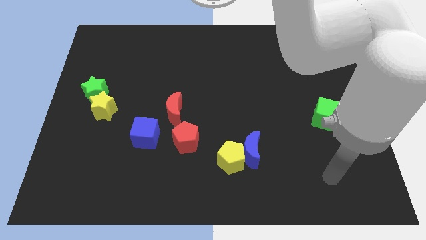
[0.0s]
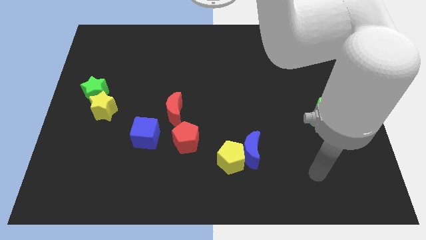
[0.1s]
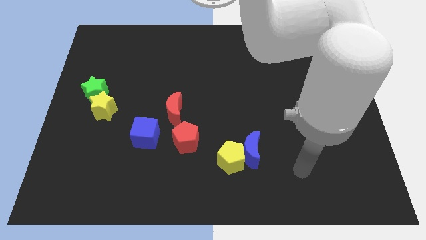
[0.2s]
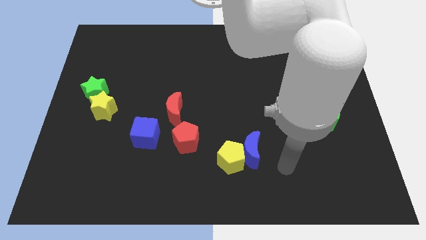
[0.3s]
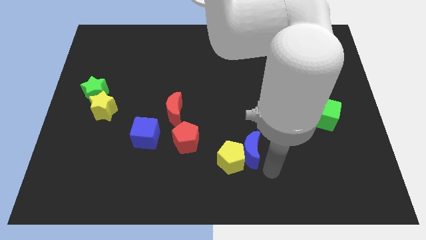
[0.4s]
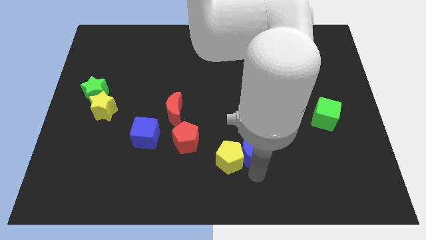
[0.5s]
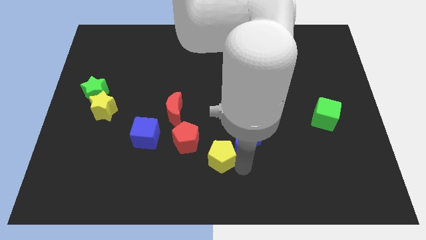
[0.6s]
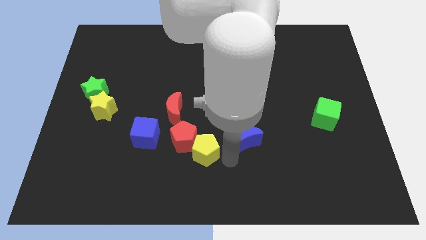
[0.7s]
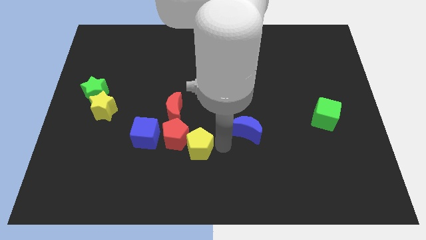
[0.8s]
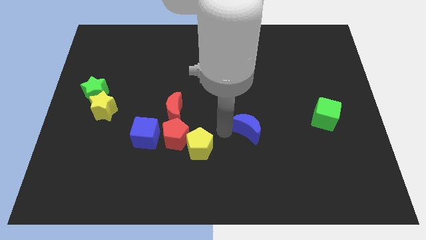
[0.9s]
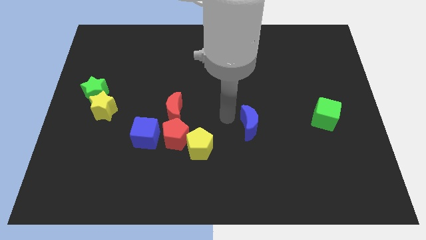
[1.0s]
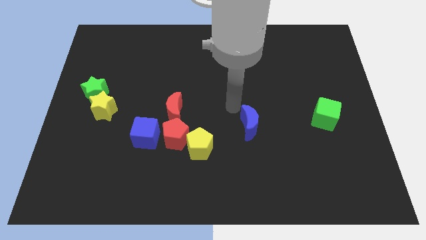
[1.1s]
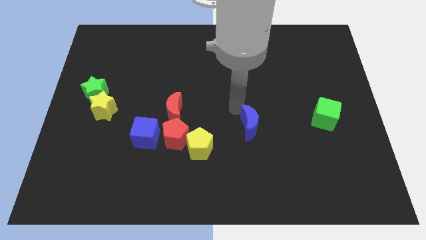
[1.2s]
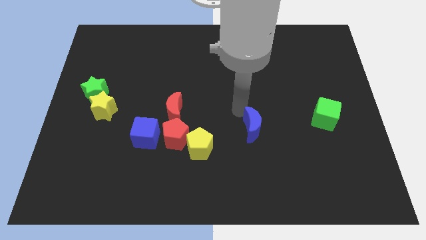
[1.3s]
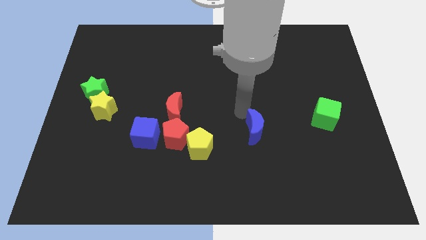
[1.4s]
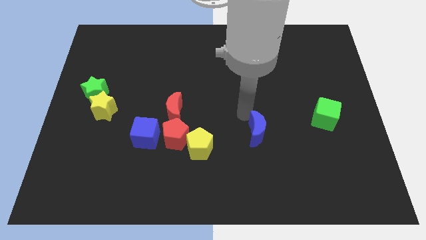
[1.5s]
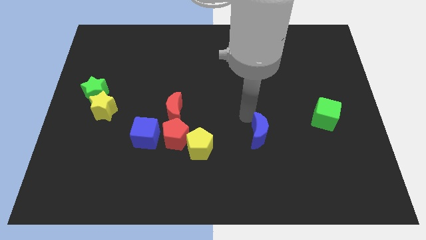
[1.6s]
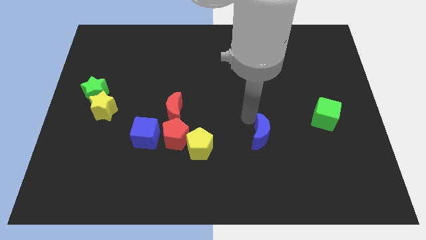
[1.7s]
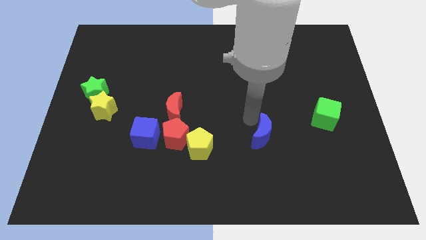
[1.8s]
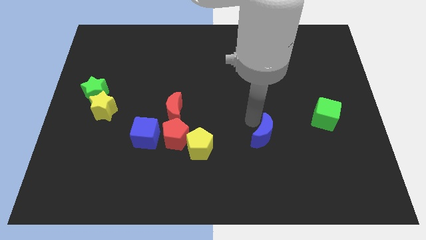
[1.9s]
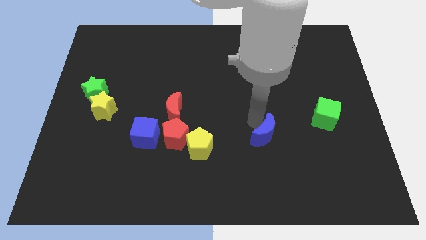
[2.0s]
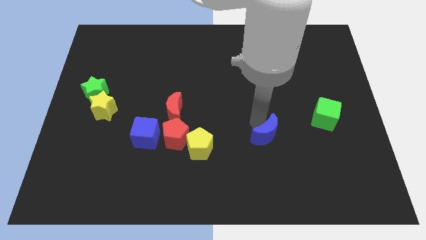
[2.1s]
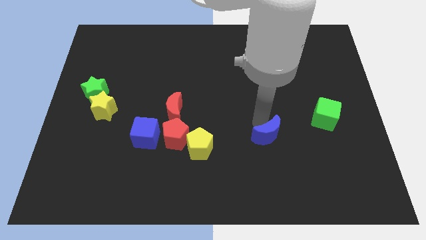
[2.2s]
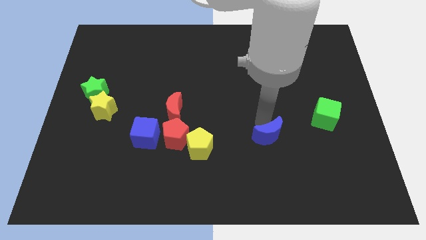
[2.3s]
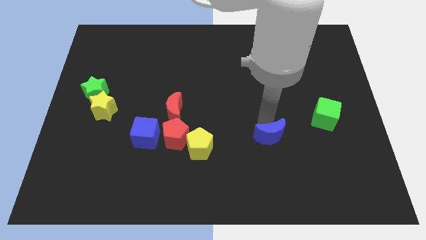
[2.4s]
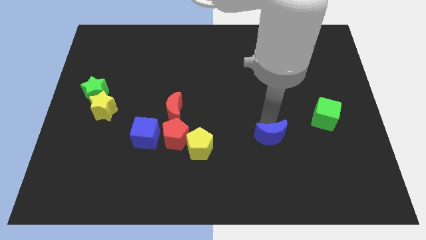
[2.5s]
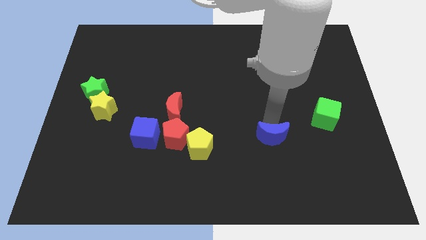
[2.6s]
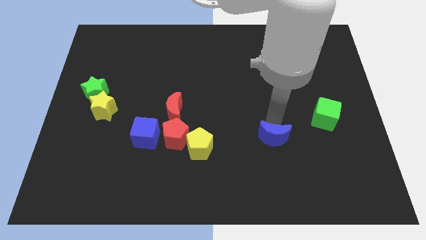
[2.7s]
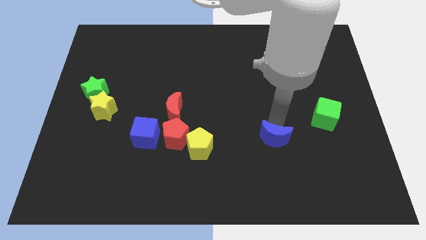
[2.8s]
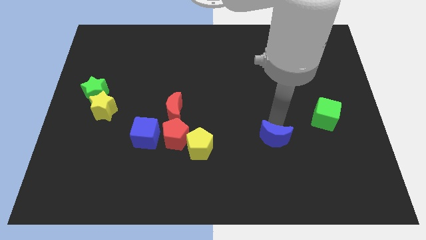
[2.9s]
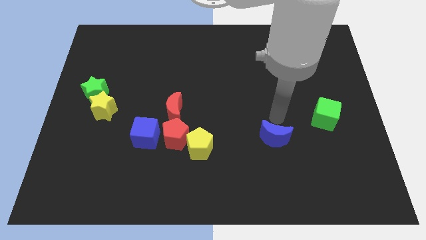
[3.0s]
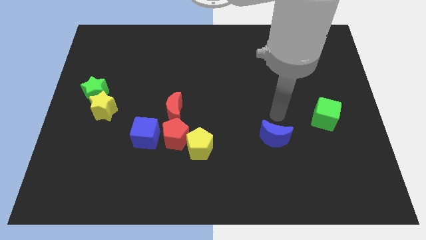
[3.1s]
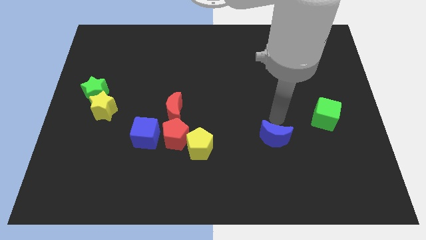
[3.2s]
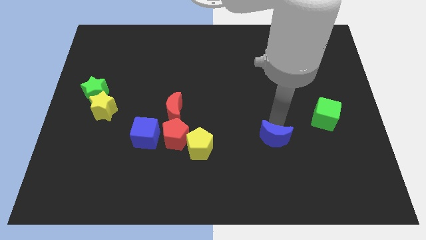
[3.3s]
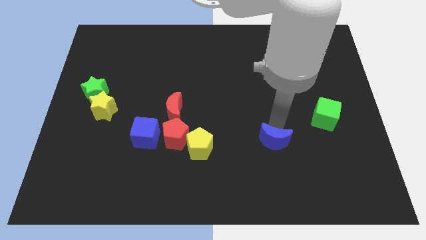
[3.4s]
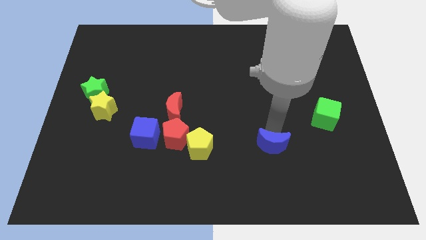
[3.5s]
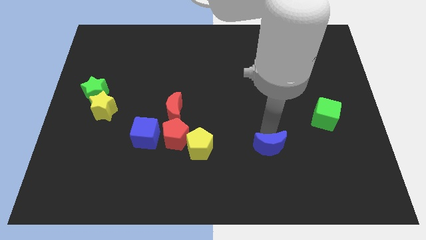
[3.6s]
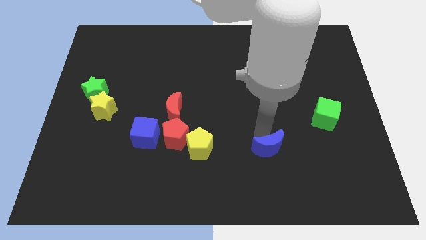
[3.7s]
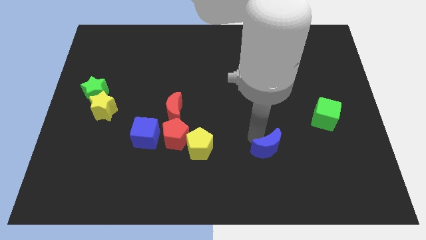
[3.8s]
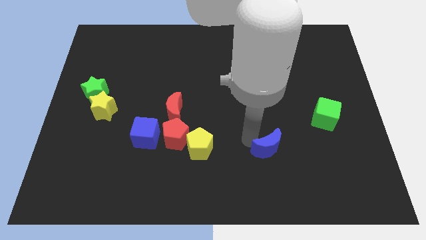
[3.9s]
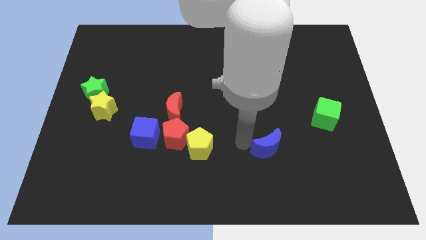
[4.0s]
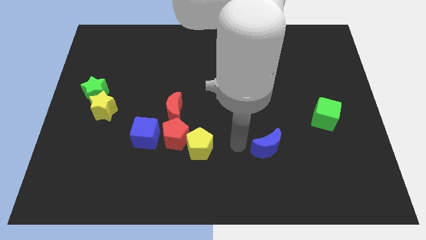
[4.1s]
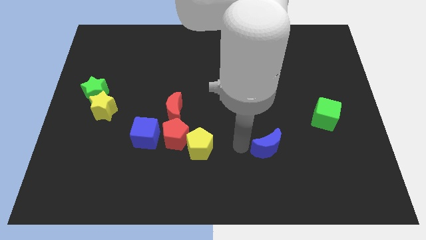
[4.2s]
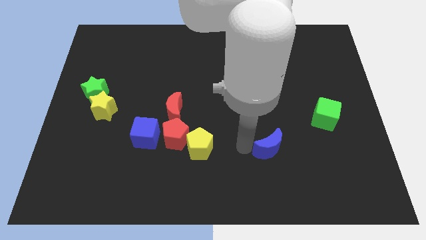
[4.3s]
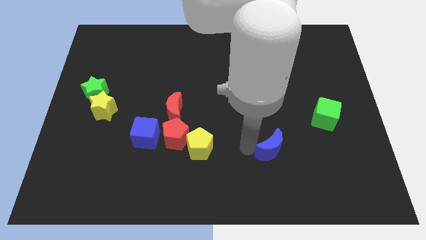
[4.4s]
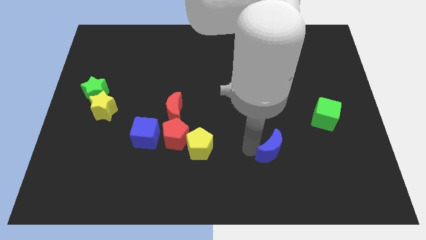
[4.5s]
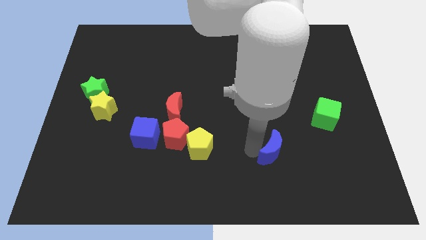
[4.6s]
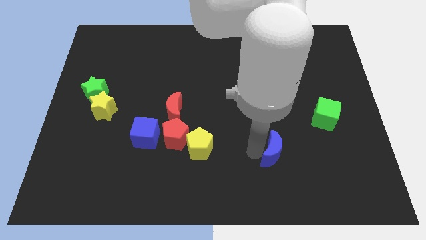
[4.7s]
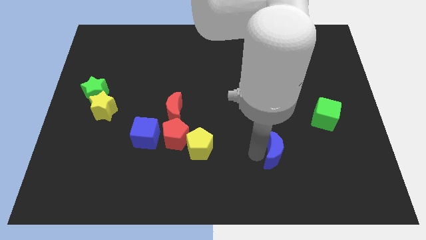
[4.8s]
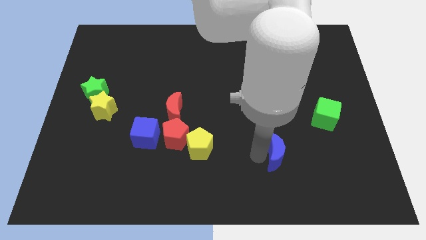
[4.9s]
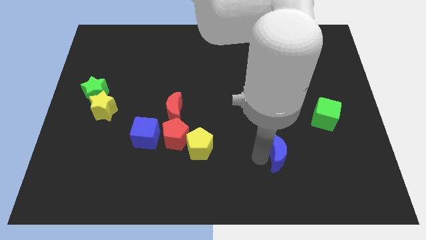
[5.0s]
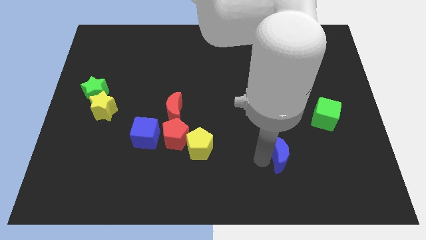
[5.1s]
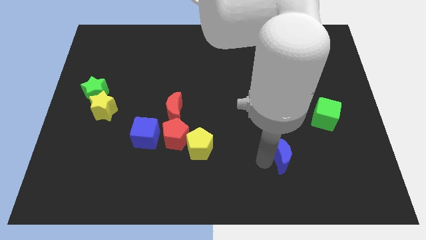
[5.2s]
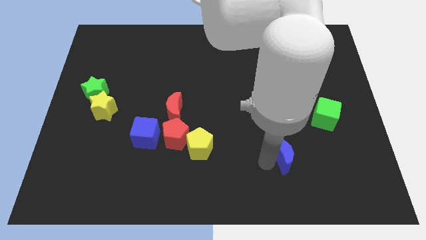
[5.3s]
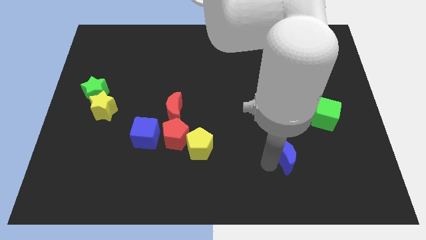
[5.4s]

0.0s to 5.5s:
push the blue moon somewhat to the right

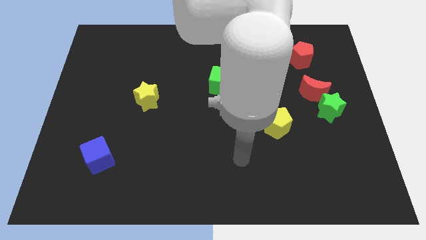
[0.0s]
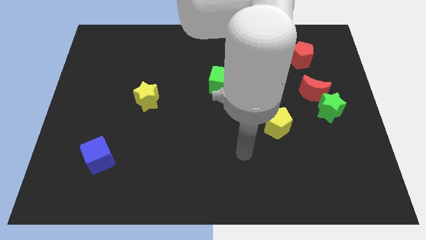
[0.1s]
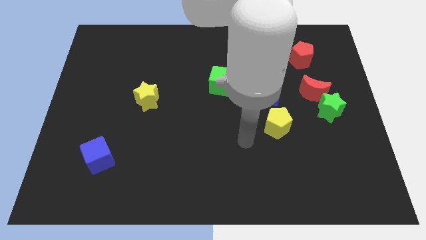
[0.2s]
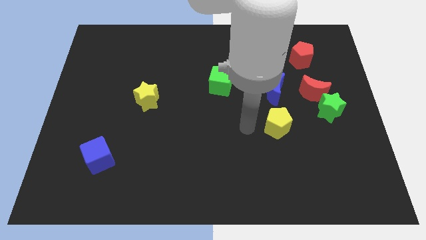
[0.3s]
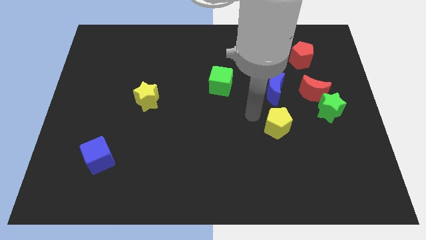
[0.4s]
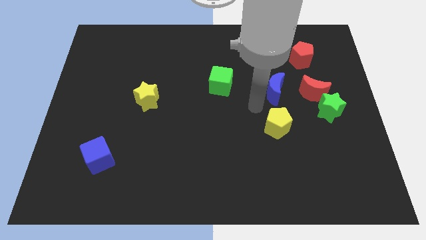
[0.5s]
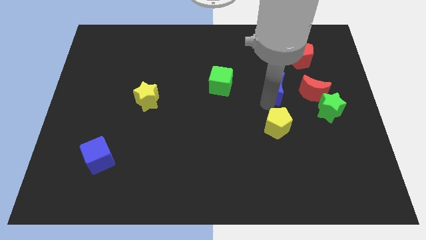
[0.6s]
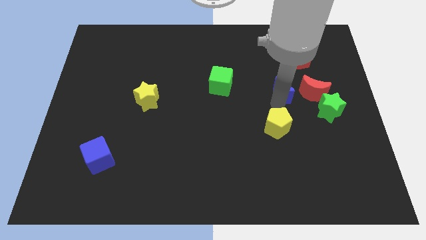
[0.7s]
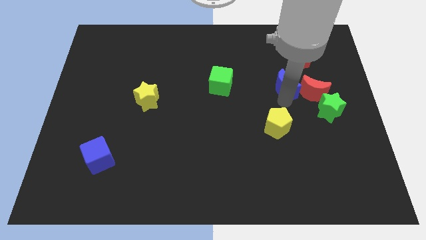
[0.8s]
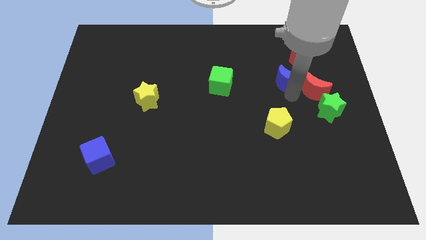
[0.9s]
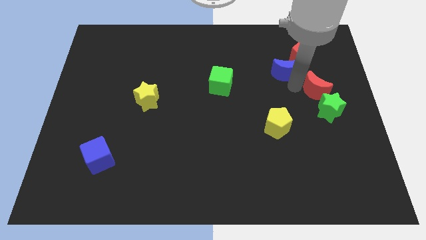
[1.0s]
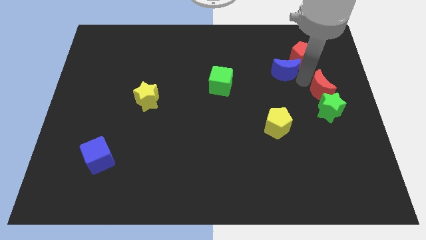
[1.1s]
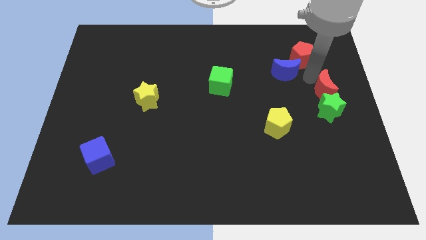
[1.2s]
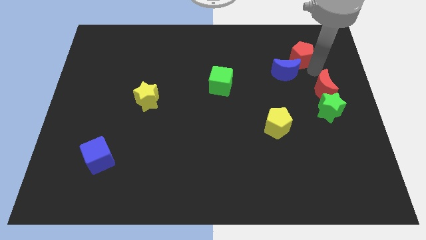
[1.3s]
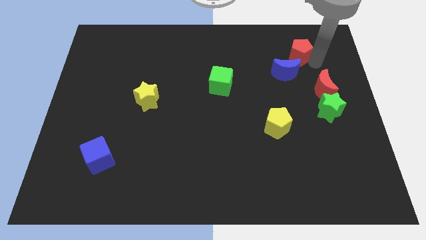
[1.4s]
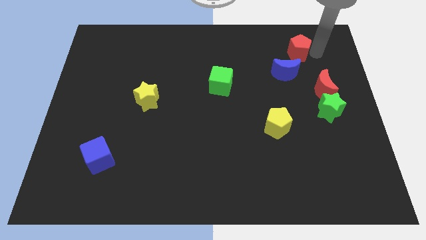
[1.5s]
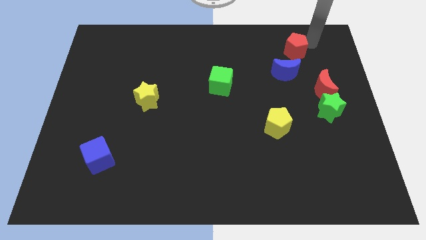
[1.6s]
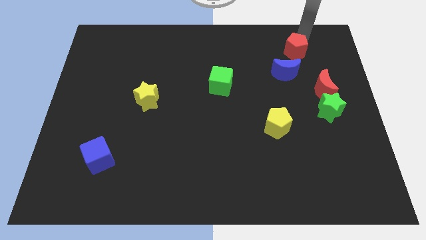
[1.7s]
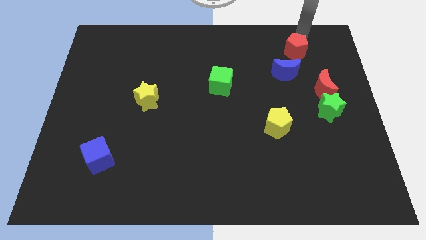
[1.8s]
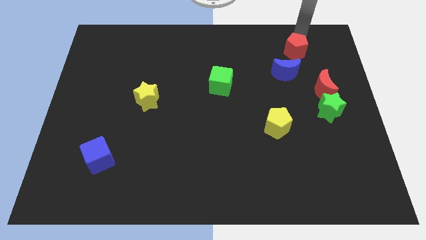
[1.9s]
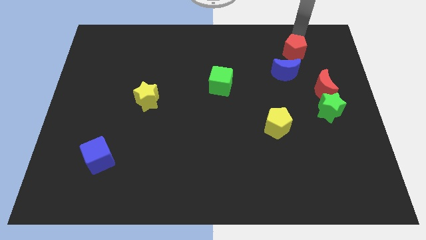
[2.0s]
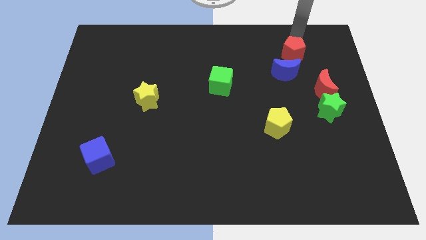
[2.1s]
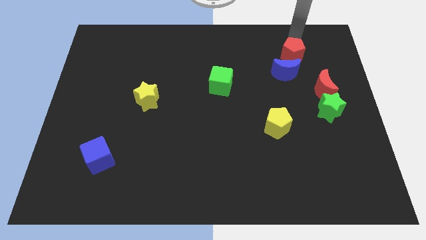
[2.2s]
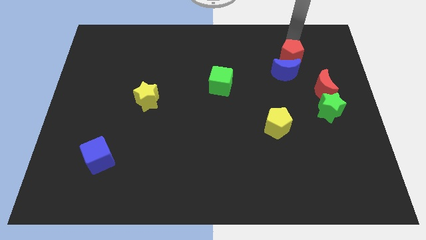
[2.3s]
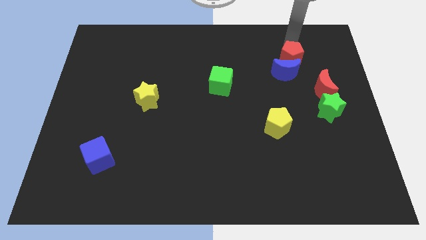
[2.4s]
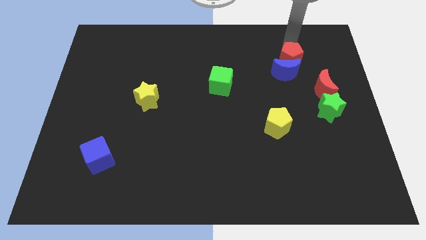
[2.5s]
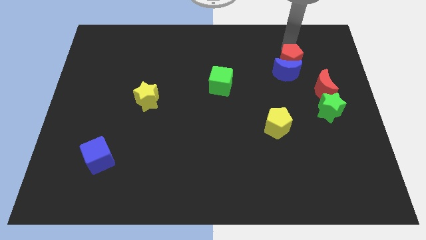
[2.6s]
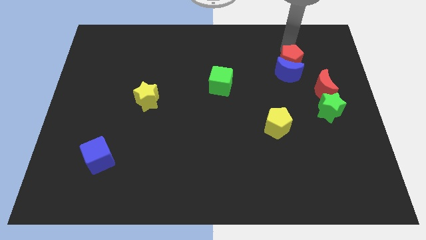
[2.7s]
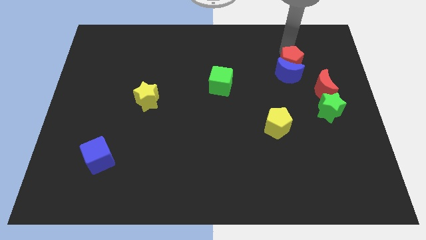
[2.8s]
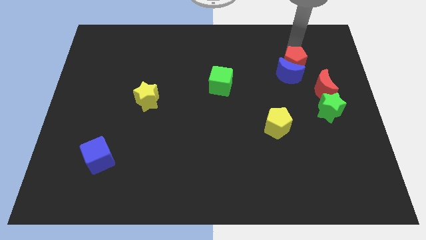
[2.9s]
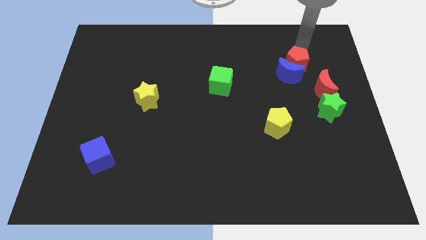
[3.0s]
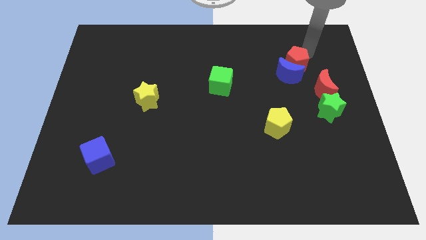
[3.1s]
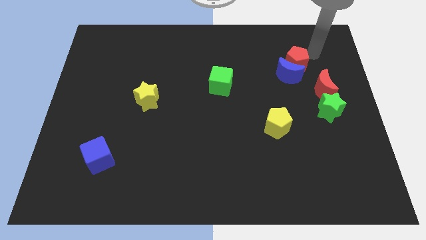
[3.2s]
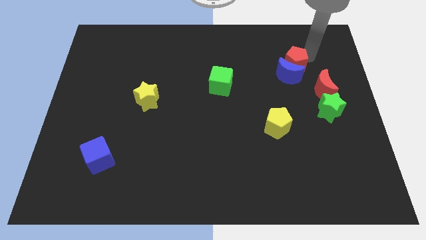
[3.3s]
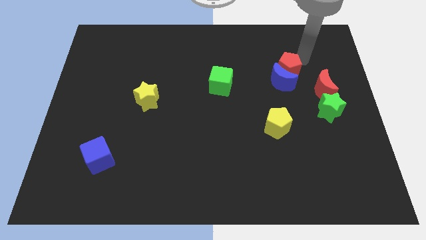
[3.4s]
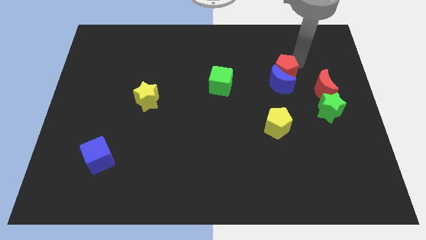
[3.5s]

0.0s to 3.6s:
push the red pentagon somewhat down and to the left
